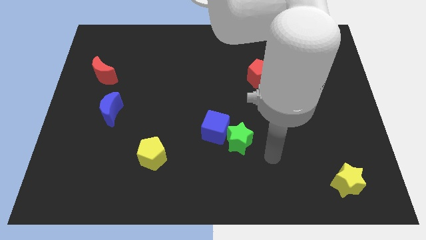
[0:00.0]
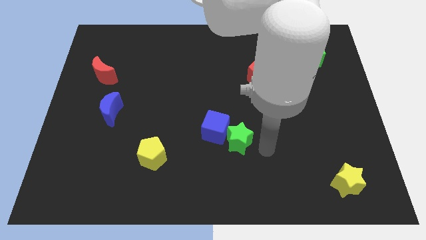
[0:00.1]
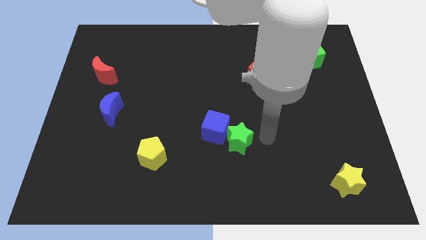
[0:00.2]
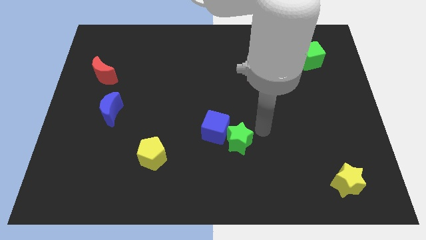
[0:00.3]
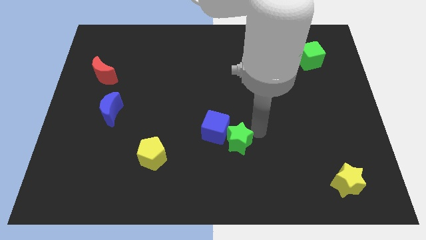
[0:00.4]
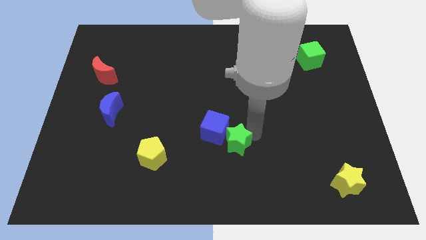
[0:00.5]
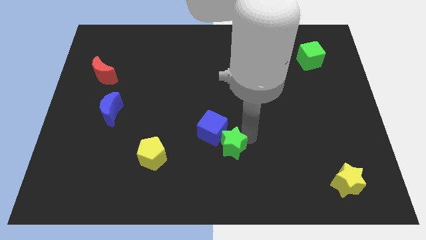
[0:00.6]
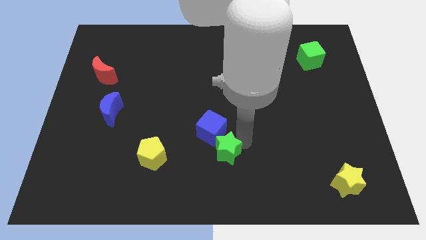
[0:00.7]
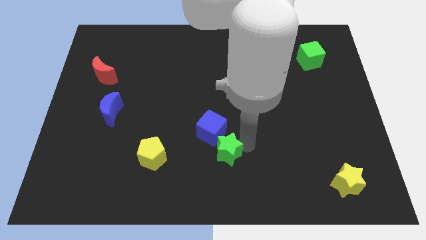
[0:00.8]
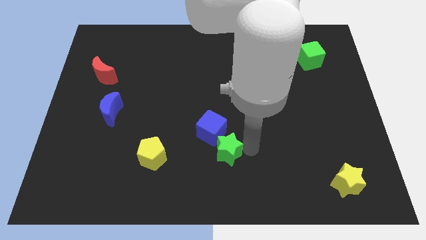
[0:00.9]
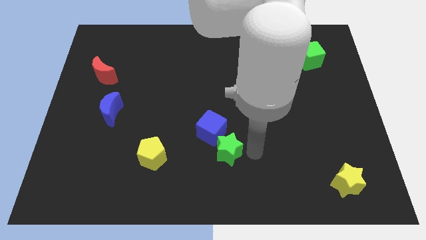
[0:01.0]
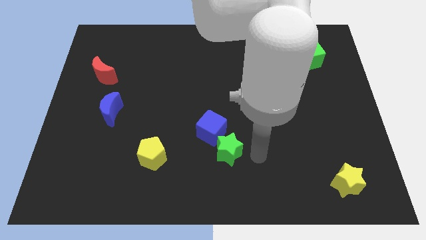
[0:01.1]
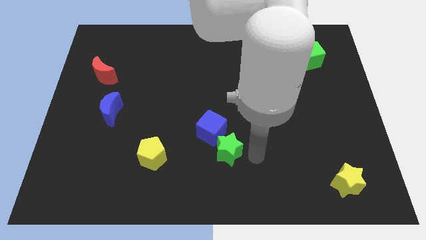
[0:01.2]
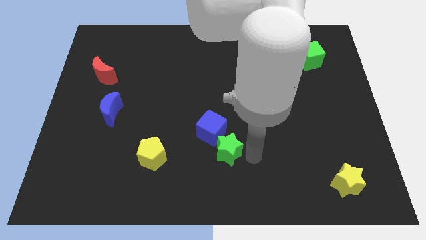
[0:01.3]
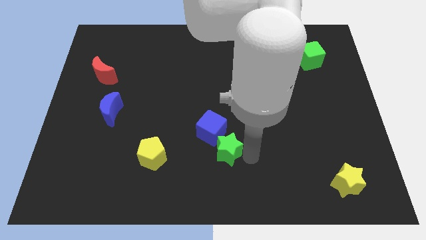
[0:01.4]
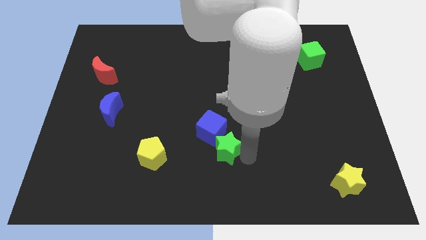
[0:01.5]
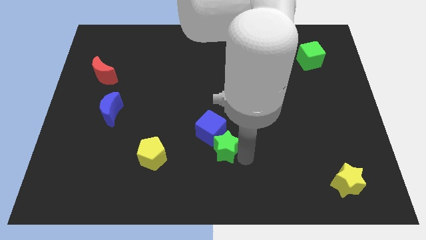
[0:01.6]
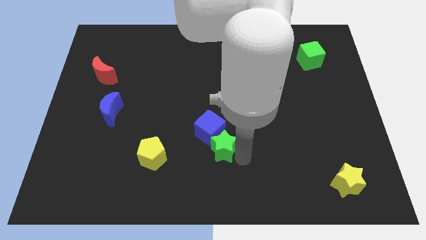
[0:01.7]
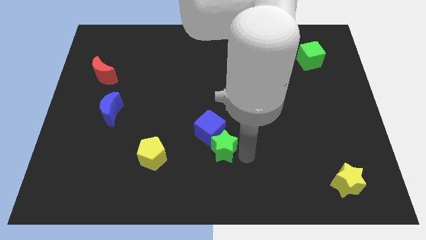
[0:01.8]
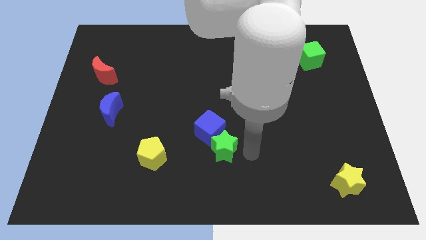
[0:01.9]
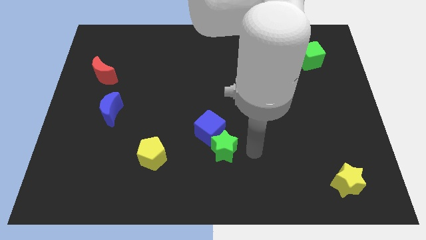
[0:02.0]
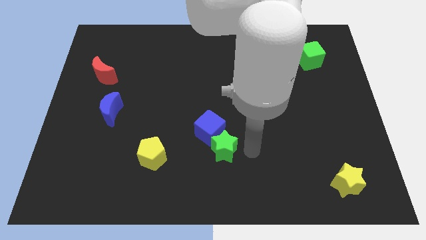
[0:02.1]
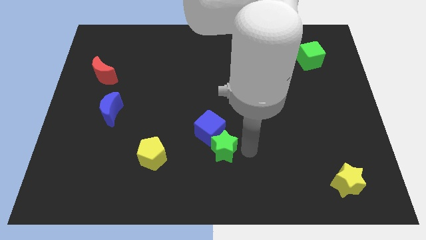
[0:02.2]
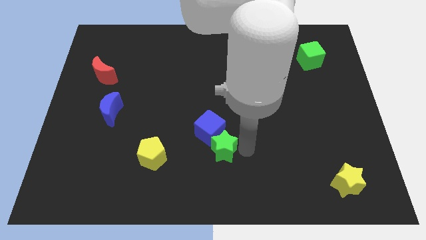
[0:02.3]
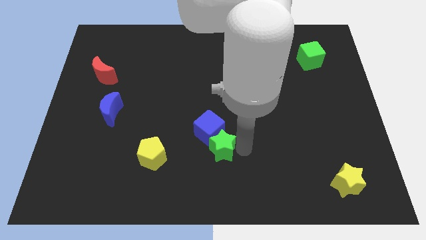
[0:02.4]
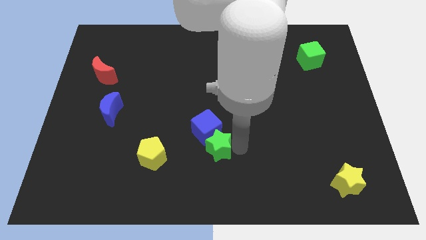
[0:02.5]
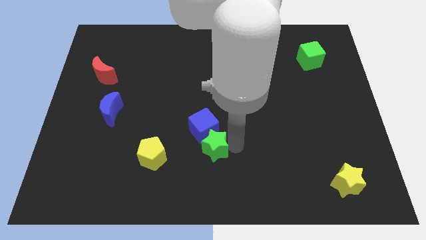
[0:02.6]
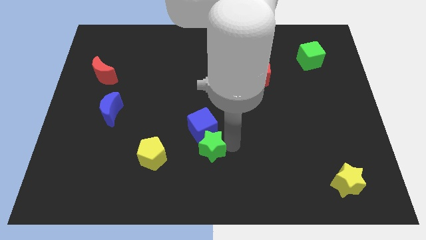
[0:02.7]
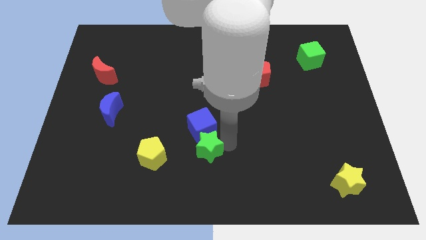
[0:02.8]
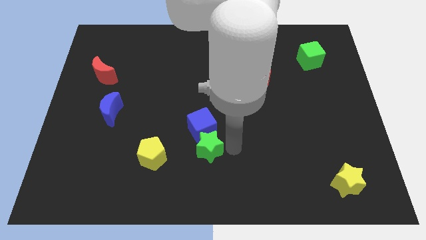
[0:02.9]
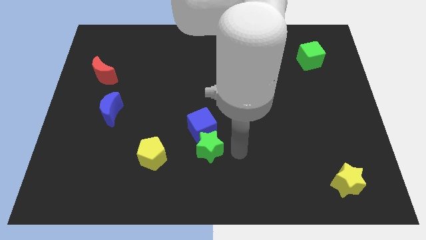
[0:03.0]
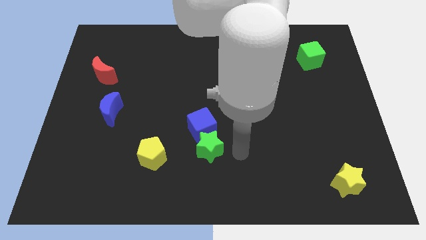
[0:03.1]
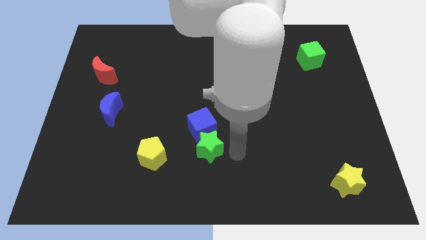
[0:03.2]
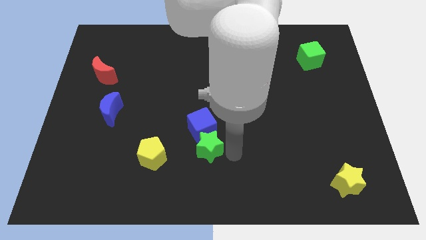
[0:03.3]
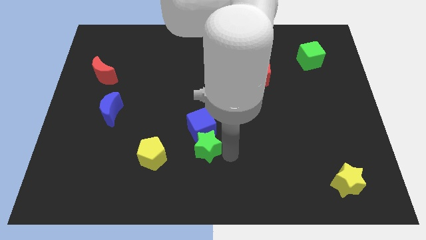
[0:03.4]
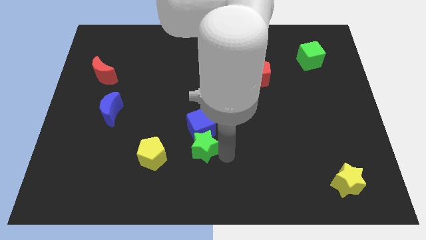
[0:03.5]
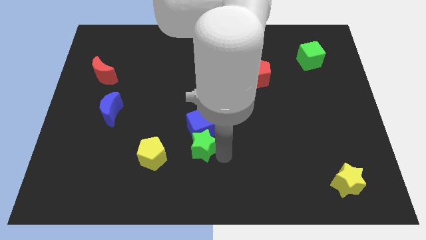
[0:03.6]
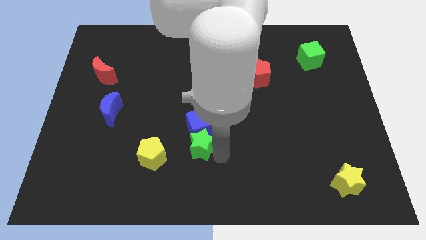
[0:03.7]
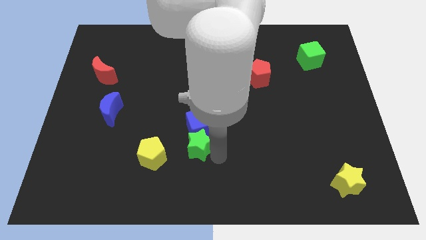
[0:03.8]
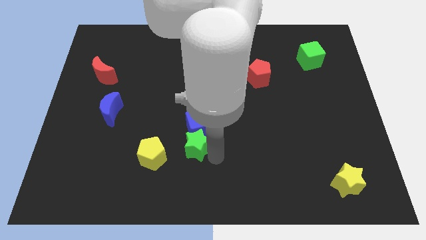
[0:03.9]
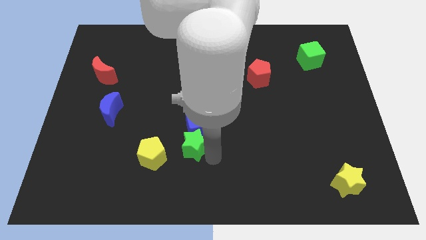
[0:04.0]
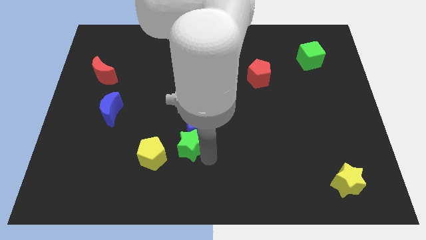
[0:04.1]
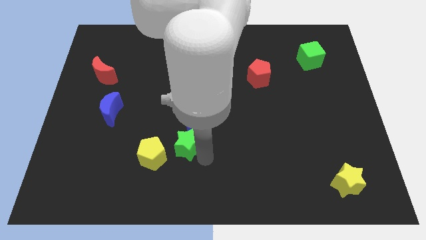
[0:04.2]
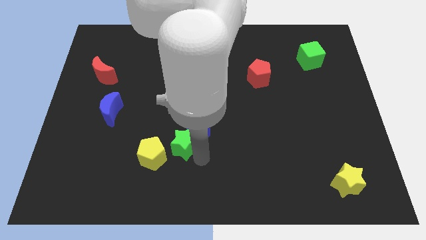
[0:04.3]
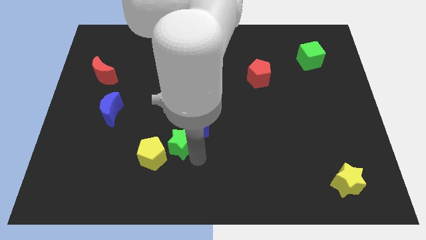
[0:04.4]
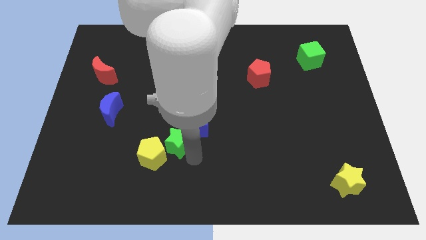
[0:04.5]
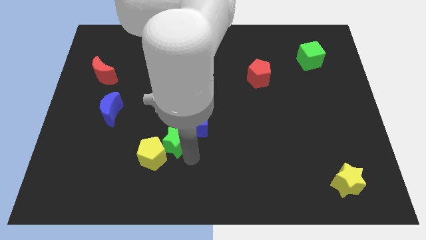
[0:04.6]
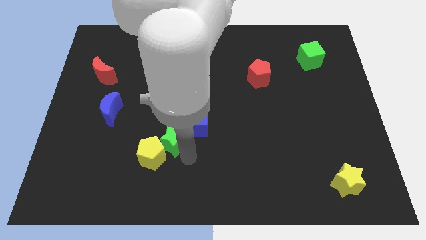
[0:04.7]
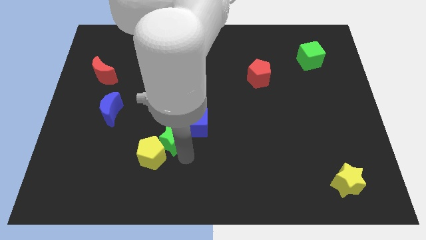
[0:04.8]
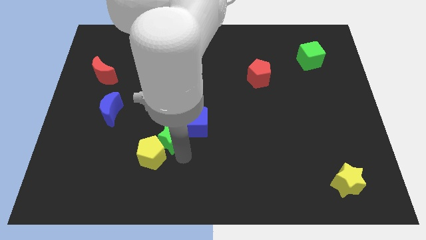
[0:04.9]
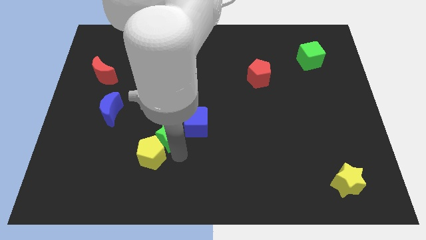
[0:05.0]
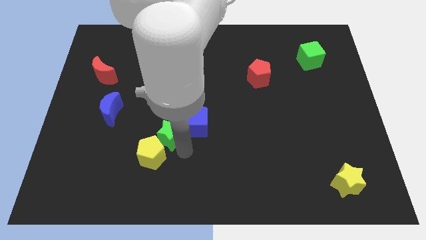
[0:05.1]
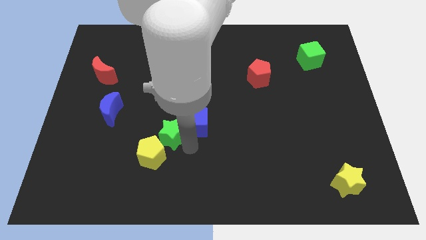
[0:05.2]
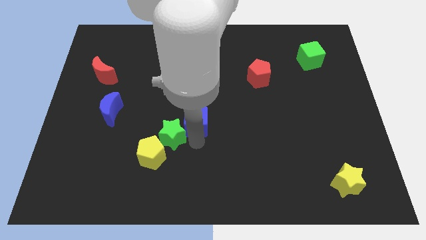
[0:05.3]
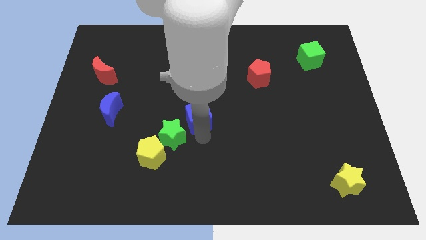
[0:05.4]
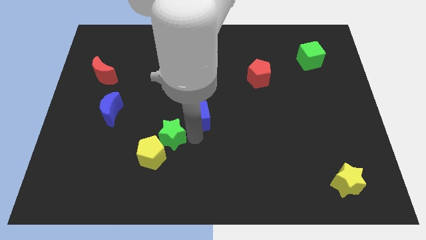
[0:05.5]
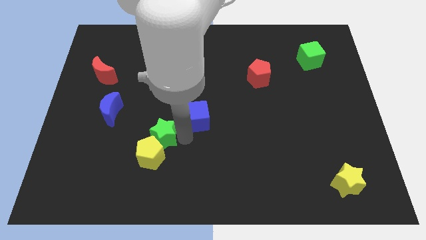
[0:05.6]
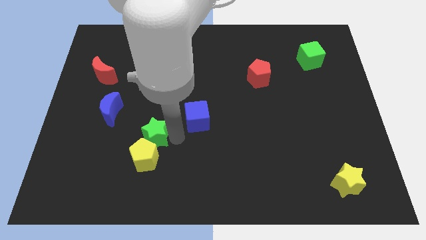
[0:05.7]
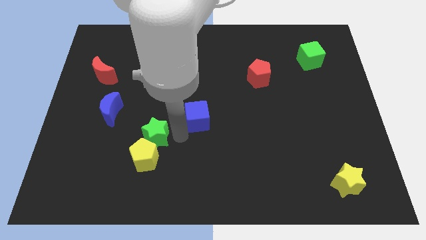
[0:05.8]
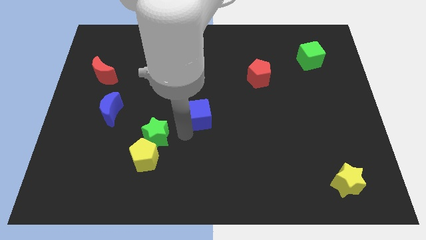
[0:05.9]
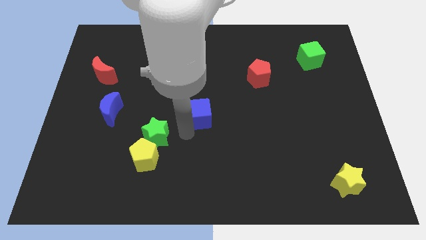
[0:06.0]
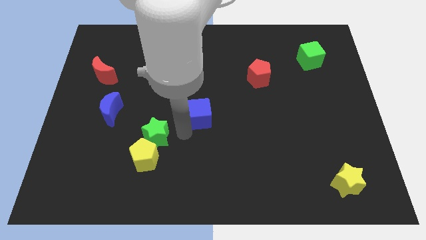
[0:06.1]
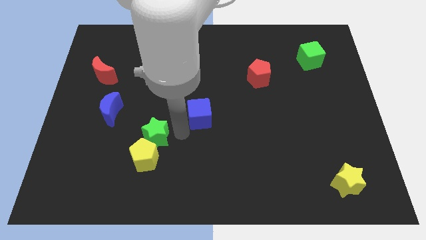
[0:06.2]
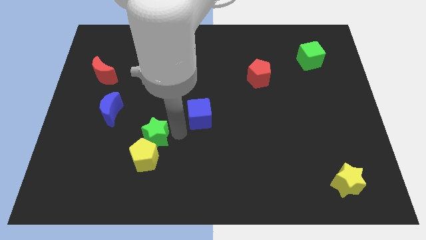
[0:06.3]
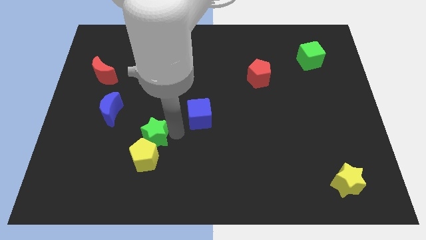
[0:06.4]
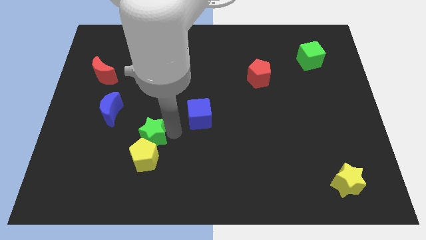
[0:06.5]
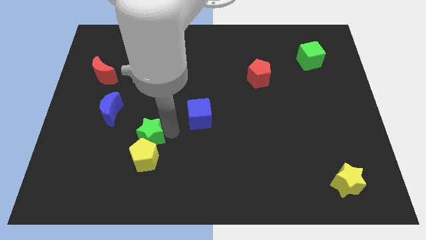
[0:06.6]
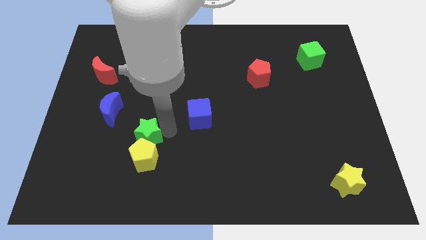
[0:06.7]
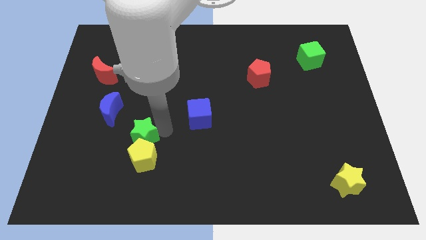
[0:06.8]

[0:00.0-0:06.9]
slide the green star left

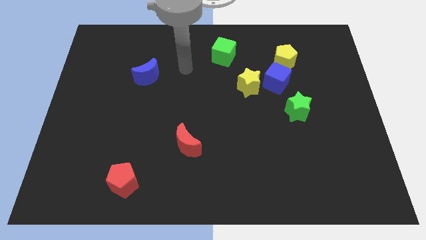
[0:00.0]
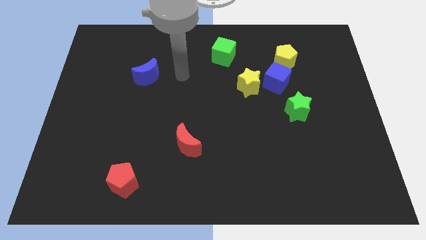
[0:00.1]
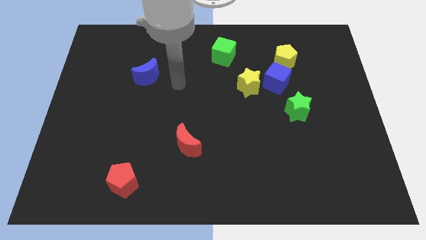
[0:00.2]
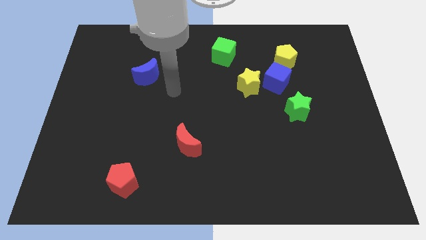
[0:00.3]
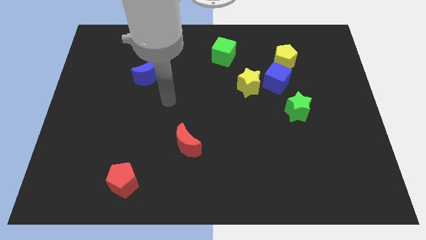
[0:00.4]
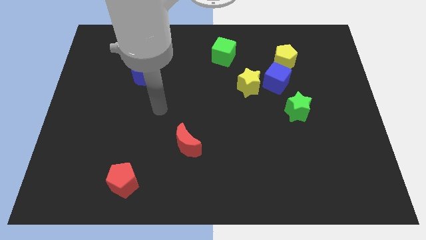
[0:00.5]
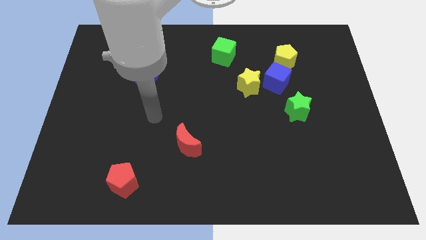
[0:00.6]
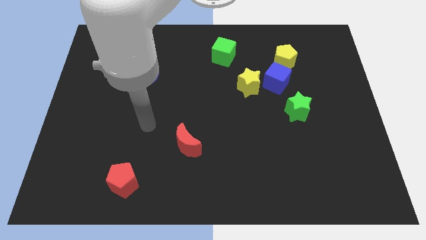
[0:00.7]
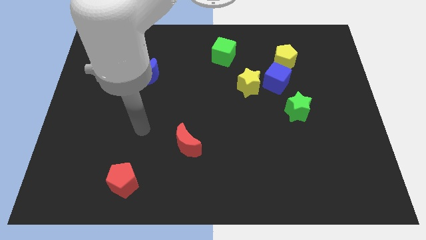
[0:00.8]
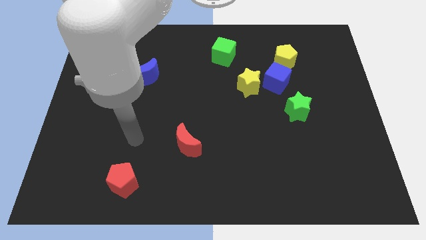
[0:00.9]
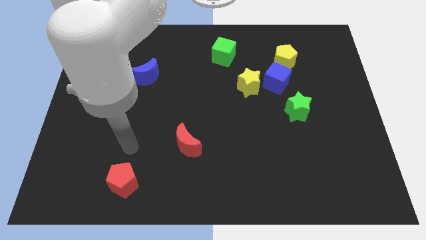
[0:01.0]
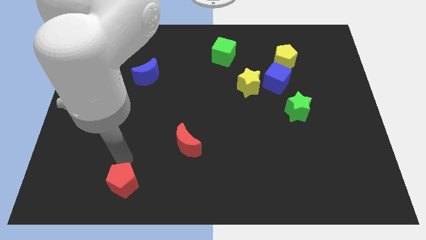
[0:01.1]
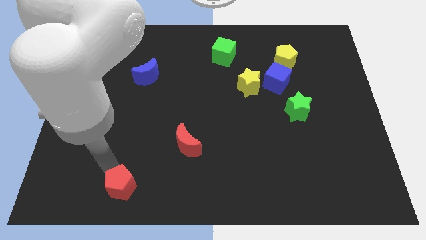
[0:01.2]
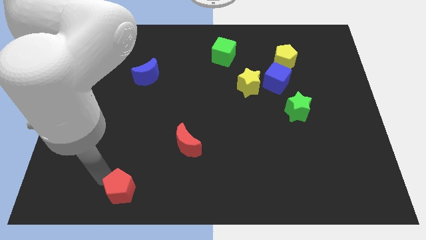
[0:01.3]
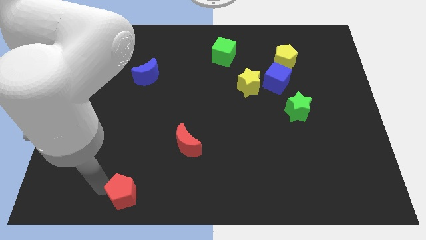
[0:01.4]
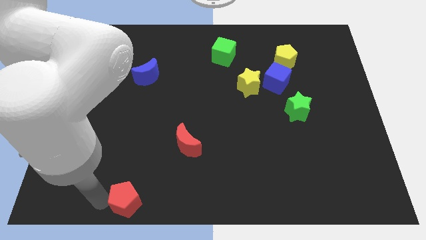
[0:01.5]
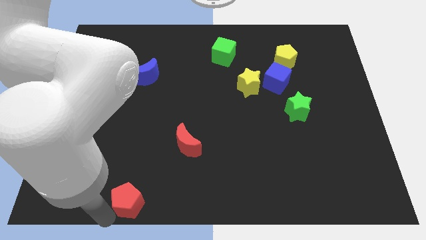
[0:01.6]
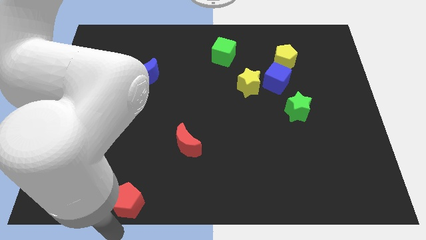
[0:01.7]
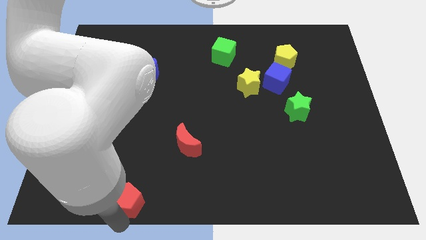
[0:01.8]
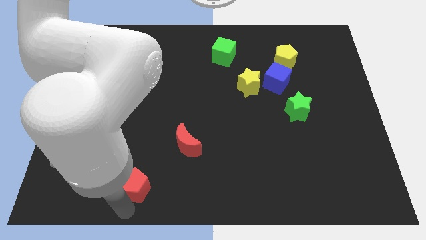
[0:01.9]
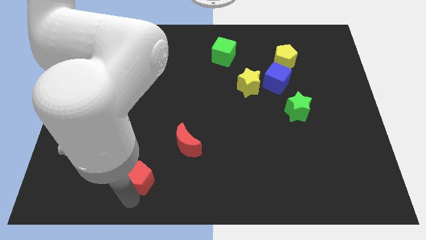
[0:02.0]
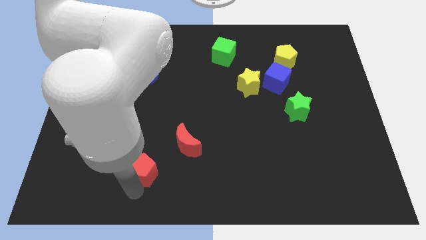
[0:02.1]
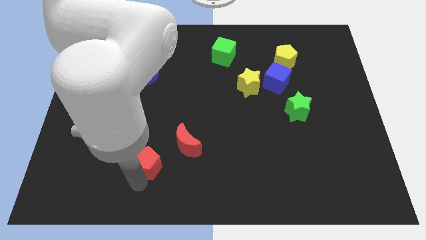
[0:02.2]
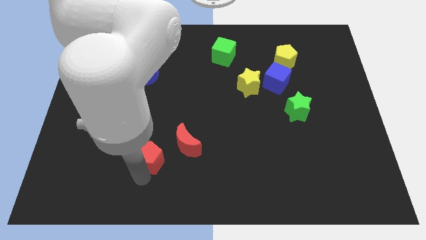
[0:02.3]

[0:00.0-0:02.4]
push the red pentagon up and right diagonally somewhat
